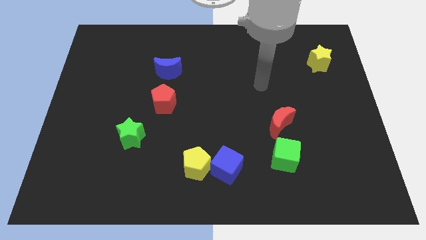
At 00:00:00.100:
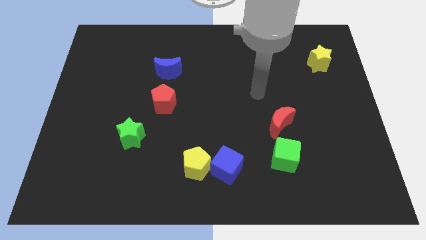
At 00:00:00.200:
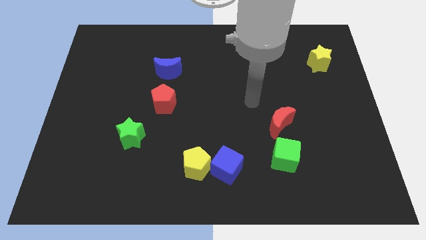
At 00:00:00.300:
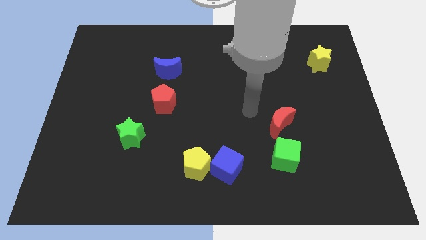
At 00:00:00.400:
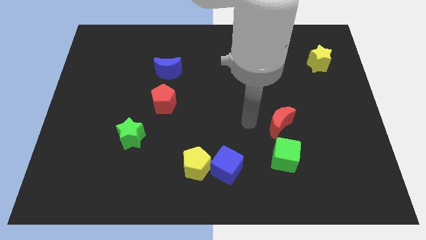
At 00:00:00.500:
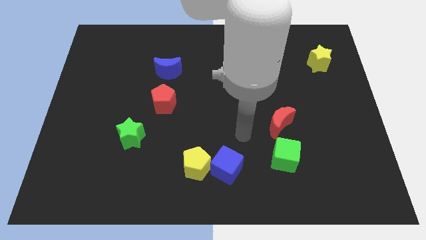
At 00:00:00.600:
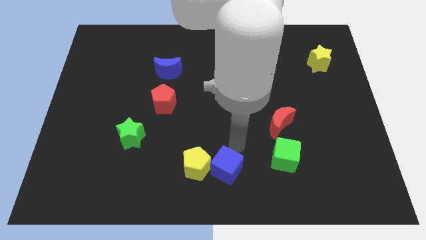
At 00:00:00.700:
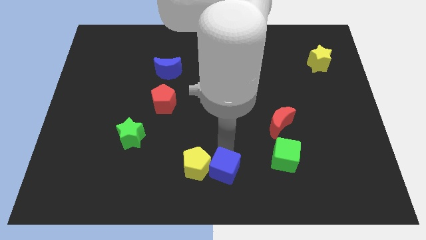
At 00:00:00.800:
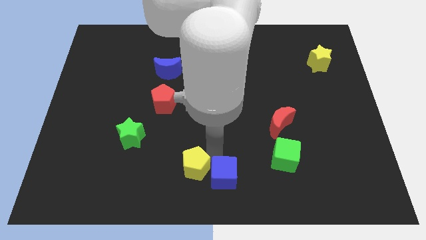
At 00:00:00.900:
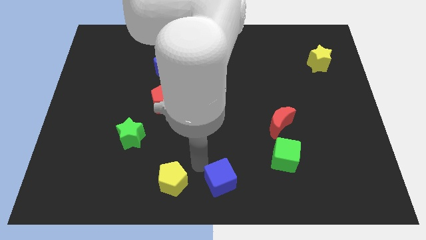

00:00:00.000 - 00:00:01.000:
pull the blue cube apart from the yellow pentagon

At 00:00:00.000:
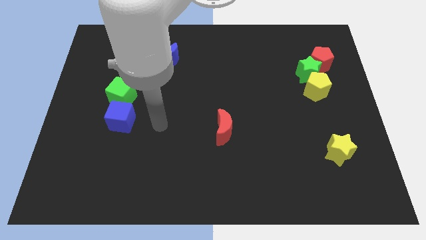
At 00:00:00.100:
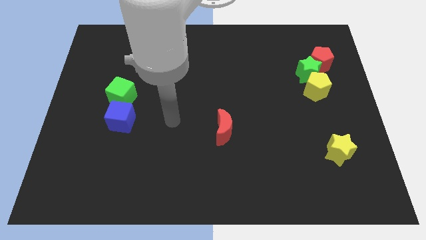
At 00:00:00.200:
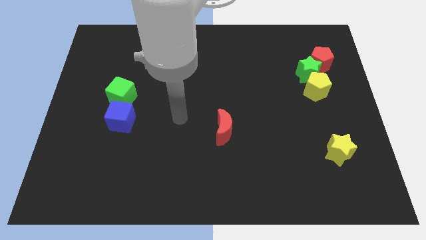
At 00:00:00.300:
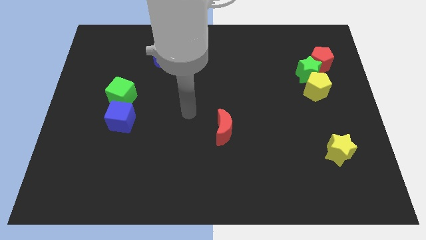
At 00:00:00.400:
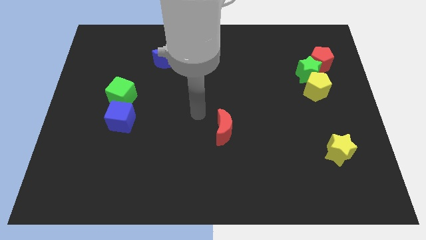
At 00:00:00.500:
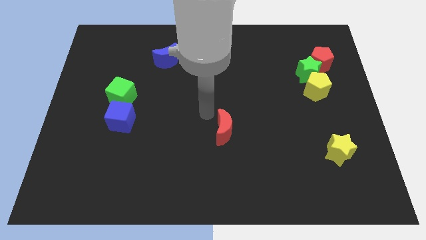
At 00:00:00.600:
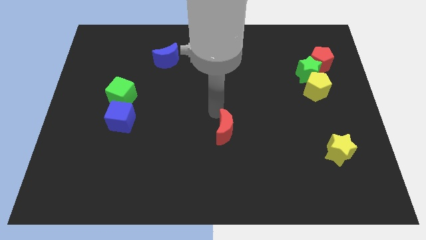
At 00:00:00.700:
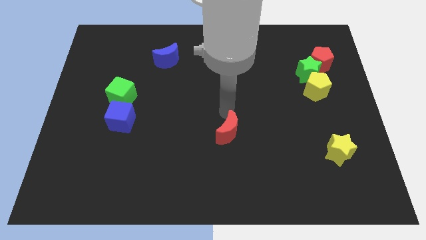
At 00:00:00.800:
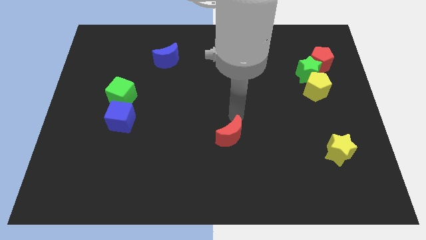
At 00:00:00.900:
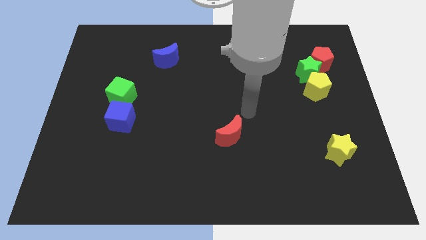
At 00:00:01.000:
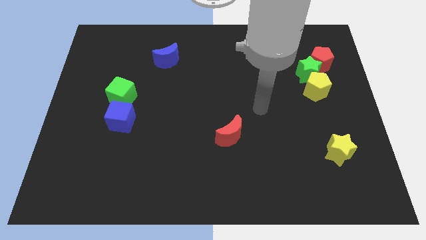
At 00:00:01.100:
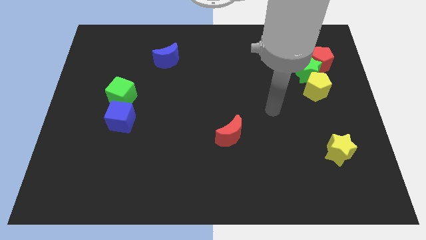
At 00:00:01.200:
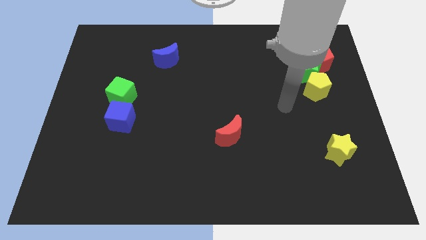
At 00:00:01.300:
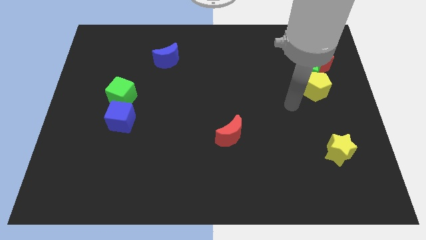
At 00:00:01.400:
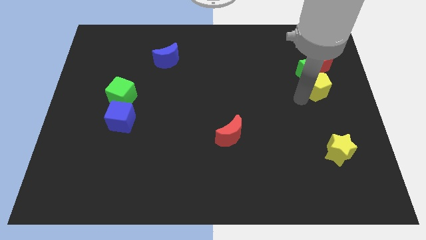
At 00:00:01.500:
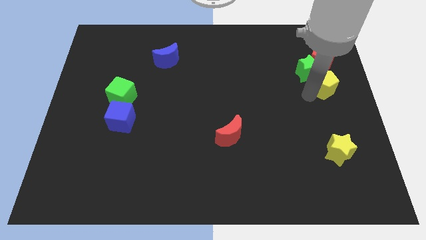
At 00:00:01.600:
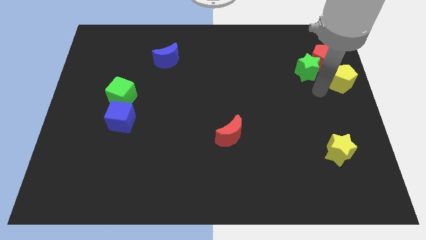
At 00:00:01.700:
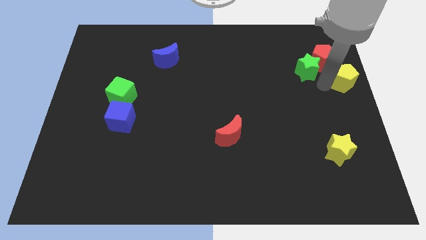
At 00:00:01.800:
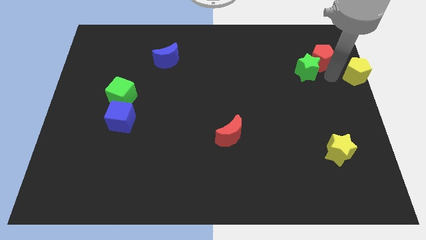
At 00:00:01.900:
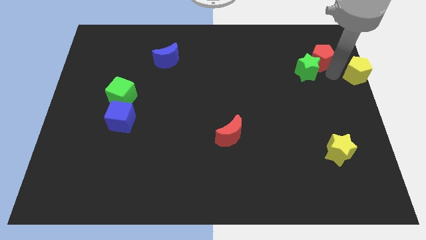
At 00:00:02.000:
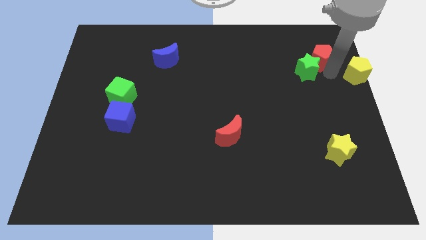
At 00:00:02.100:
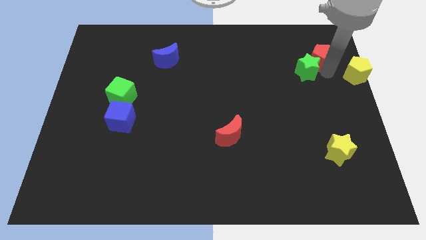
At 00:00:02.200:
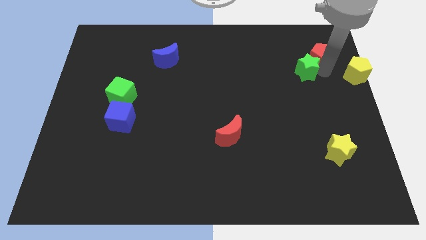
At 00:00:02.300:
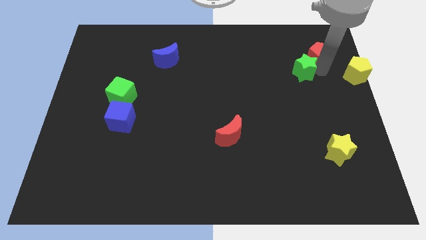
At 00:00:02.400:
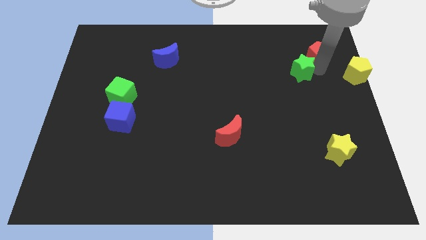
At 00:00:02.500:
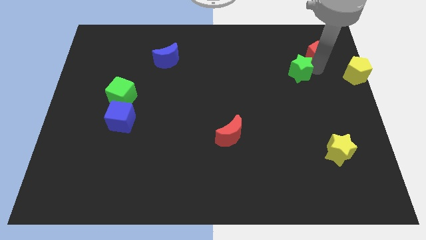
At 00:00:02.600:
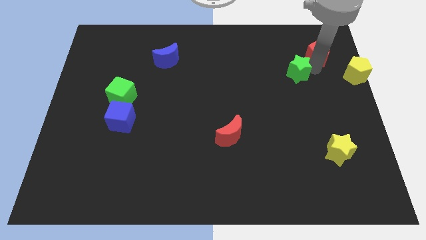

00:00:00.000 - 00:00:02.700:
pull the green star apart from the yellow pentagon and red pentagon

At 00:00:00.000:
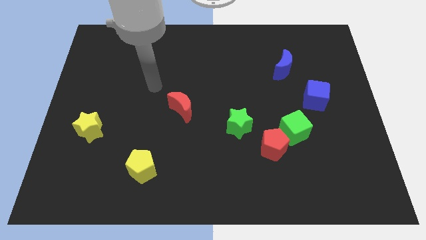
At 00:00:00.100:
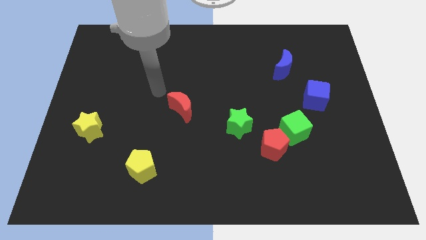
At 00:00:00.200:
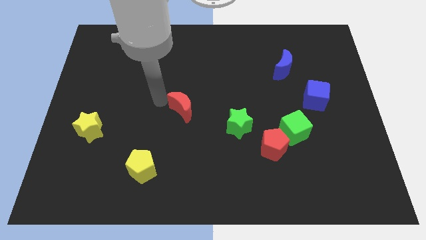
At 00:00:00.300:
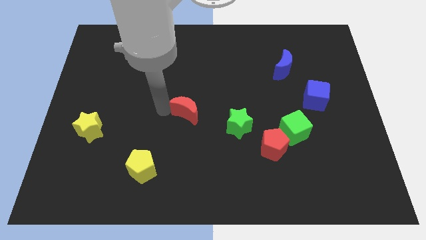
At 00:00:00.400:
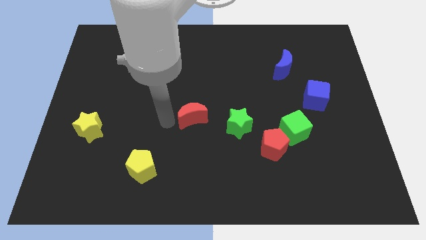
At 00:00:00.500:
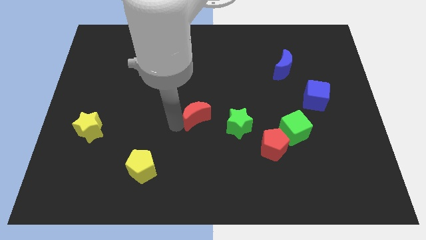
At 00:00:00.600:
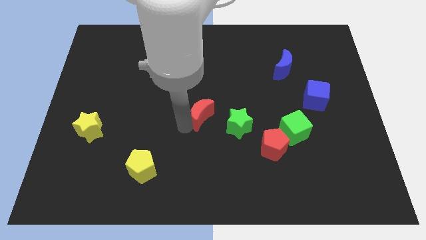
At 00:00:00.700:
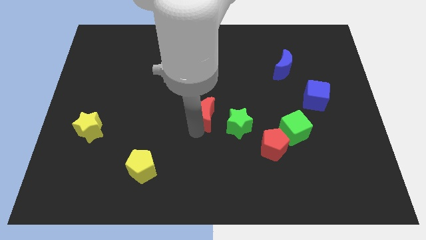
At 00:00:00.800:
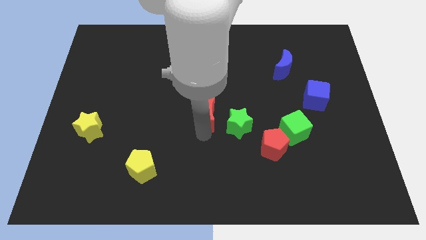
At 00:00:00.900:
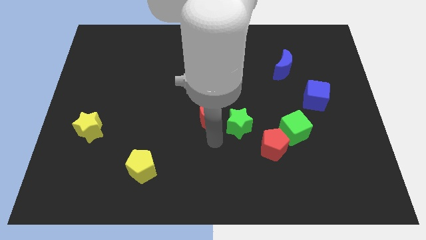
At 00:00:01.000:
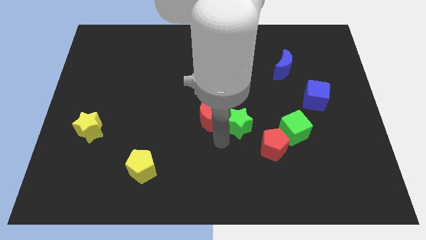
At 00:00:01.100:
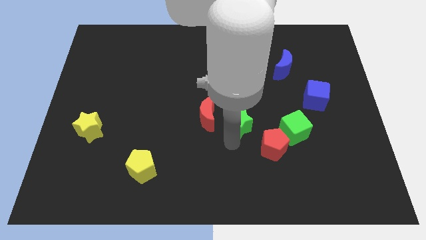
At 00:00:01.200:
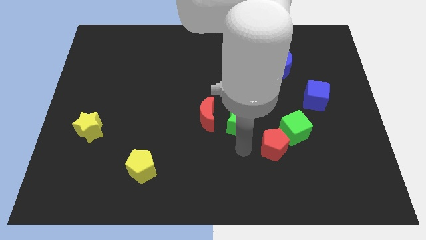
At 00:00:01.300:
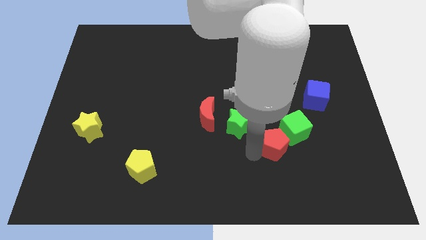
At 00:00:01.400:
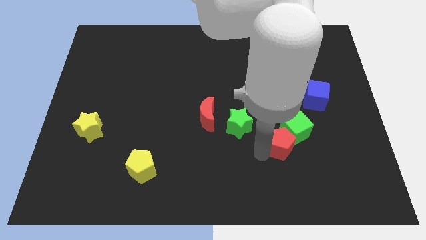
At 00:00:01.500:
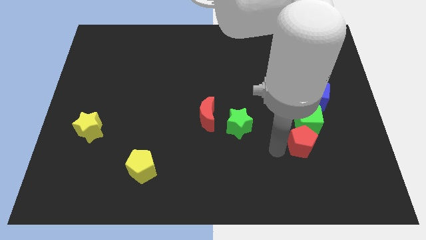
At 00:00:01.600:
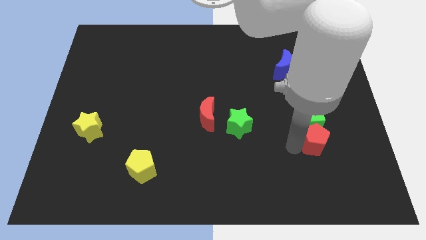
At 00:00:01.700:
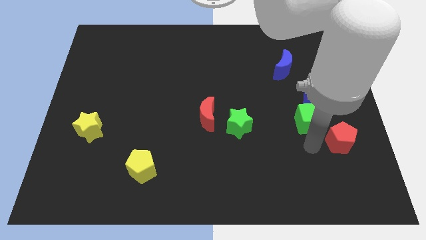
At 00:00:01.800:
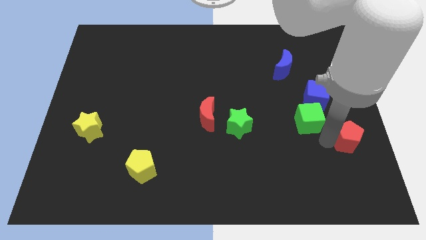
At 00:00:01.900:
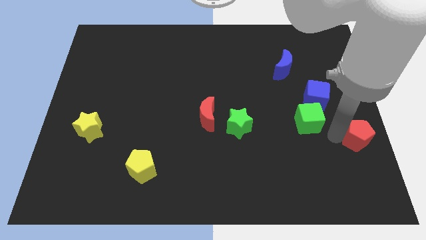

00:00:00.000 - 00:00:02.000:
separate the green cube from the red pentagon

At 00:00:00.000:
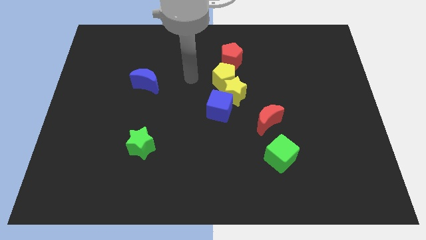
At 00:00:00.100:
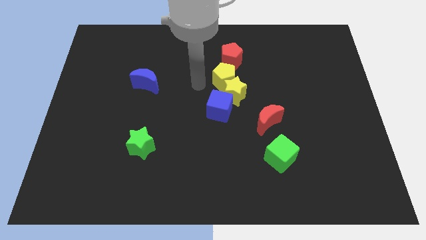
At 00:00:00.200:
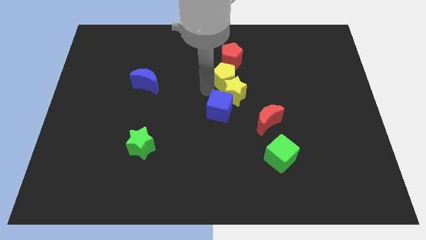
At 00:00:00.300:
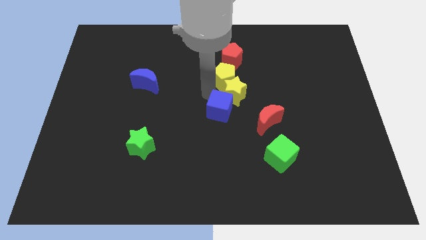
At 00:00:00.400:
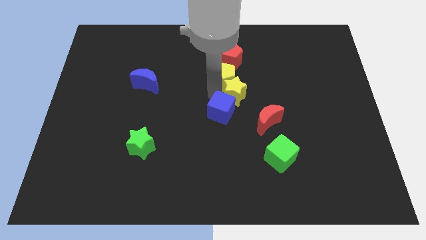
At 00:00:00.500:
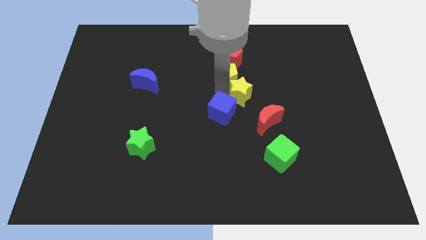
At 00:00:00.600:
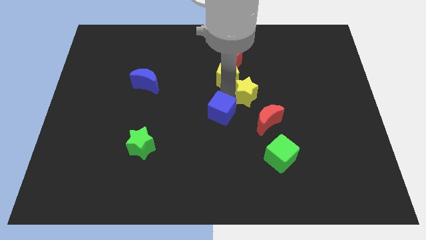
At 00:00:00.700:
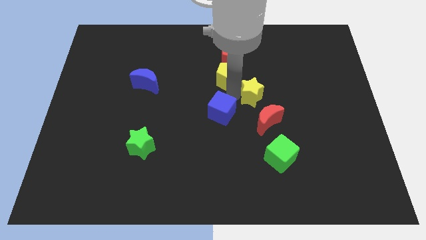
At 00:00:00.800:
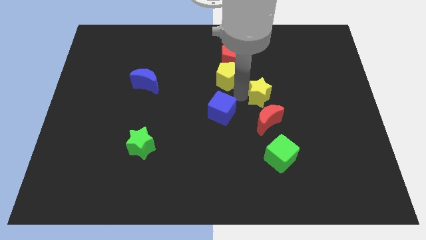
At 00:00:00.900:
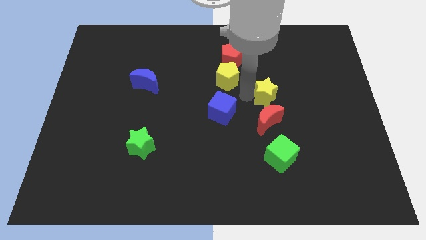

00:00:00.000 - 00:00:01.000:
separate the yellow star from the yellow pentagon and blue cube

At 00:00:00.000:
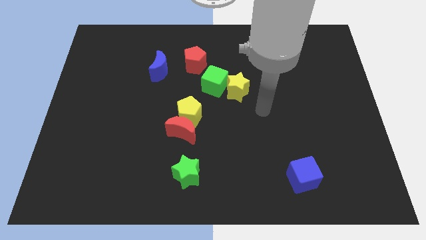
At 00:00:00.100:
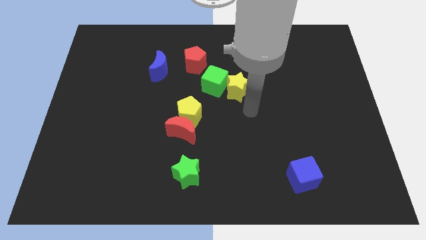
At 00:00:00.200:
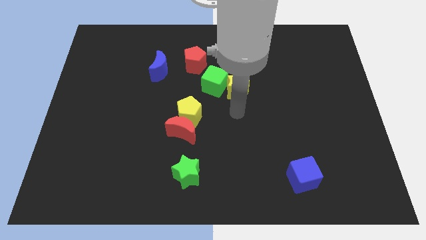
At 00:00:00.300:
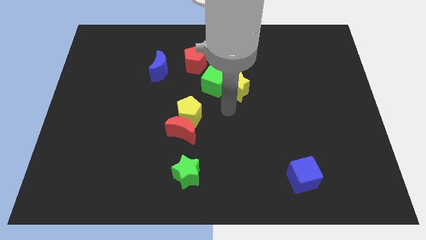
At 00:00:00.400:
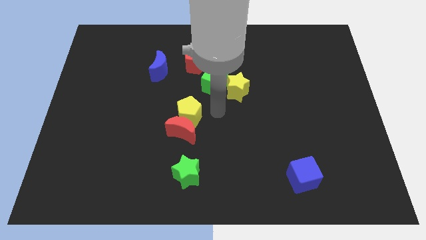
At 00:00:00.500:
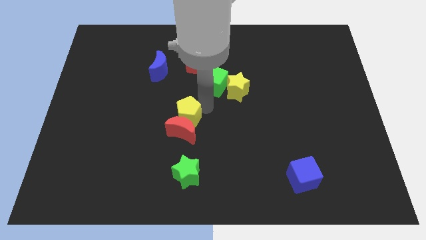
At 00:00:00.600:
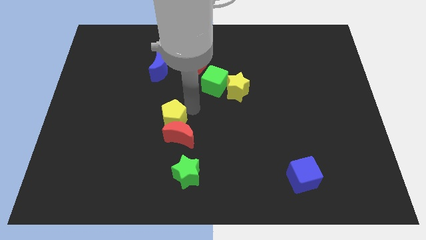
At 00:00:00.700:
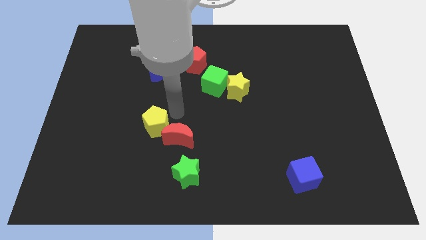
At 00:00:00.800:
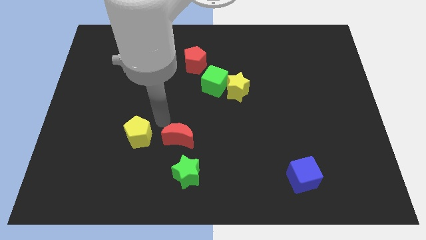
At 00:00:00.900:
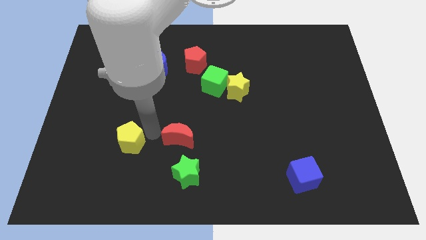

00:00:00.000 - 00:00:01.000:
separate the red moon from the yellow pentagon

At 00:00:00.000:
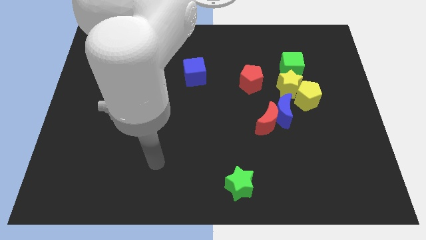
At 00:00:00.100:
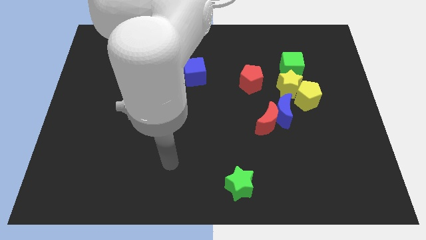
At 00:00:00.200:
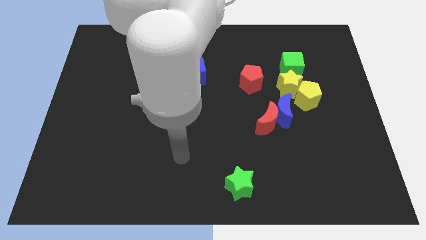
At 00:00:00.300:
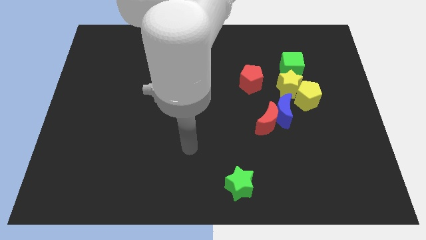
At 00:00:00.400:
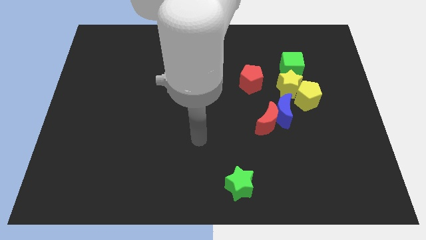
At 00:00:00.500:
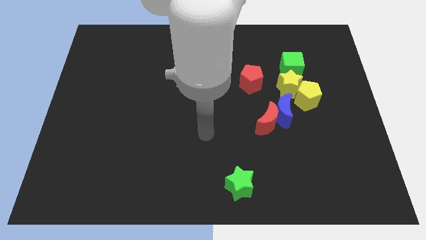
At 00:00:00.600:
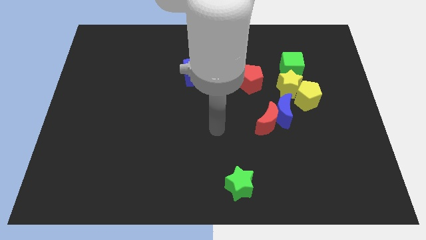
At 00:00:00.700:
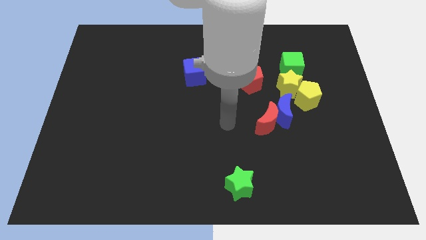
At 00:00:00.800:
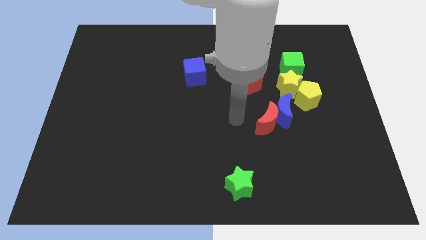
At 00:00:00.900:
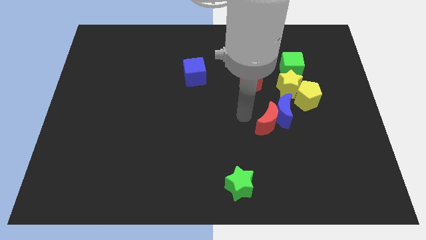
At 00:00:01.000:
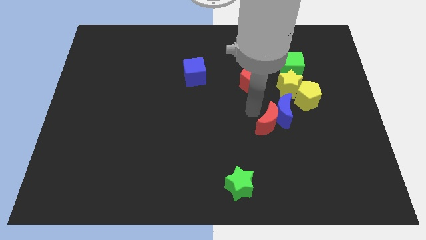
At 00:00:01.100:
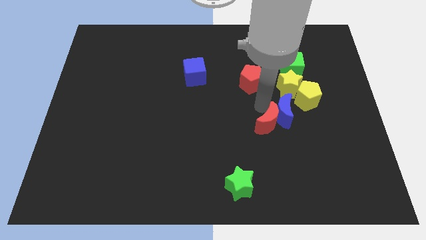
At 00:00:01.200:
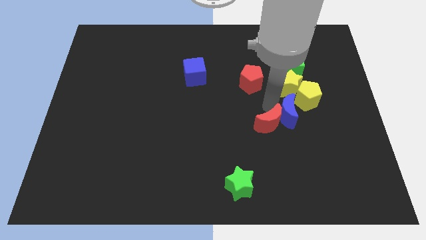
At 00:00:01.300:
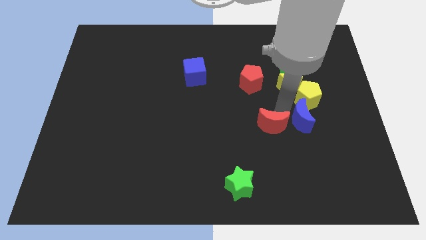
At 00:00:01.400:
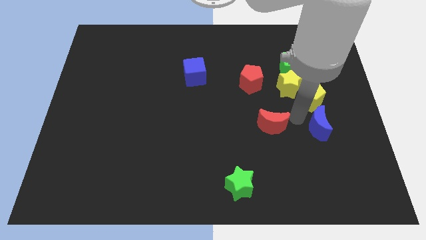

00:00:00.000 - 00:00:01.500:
move the red moon away from the blue moon
